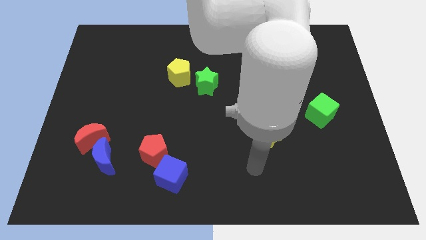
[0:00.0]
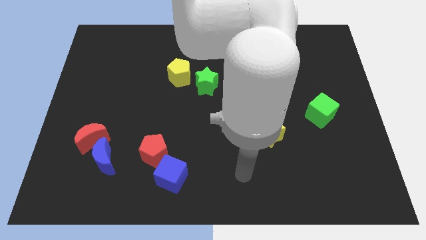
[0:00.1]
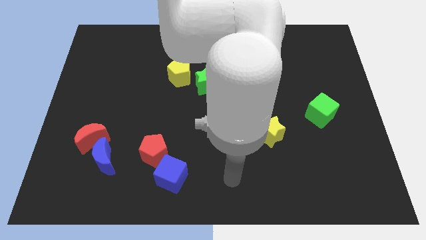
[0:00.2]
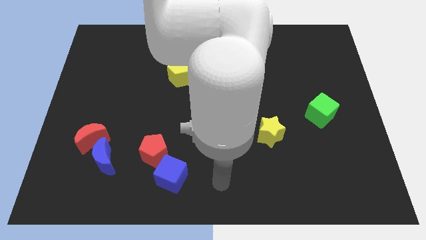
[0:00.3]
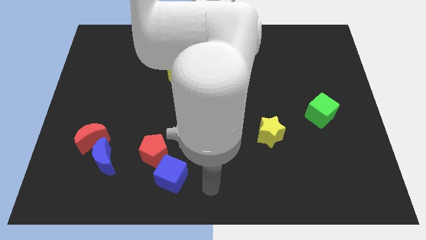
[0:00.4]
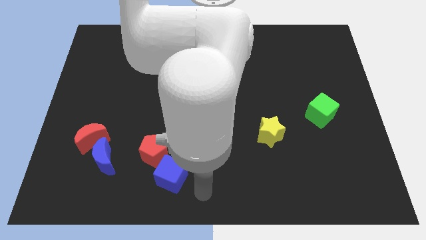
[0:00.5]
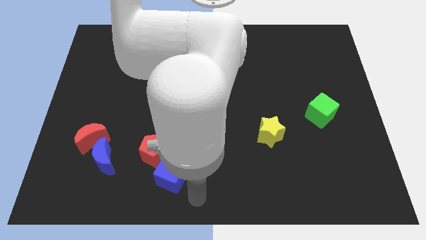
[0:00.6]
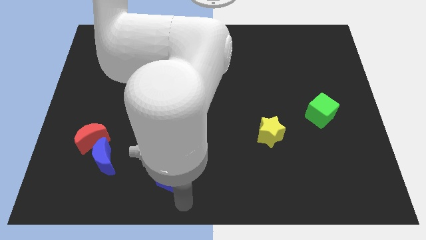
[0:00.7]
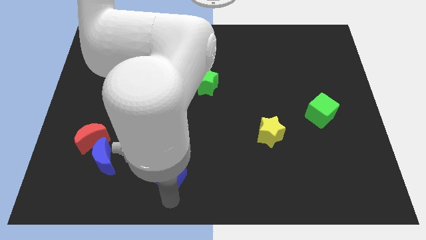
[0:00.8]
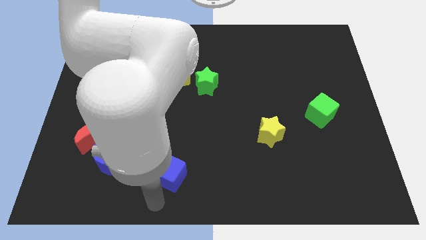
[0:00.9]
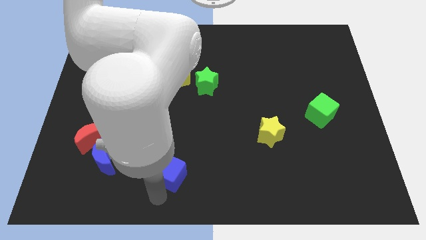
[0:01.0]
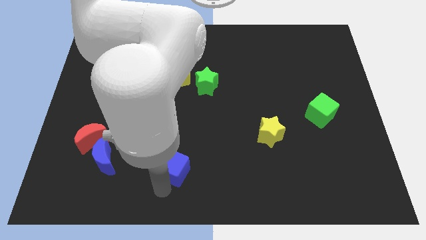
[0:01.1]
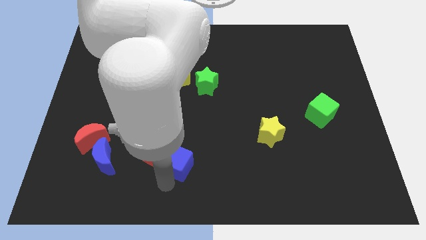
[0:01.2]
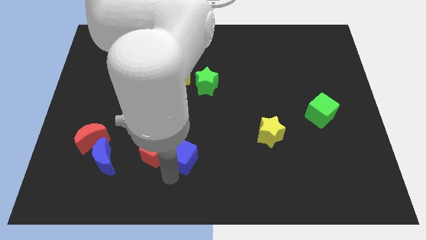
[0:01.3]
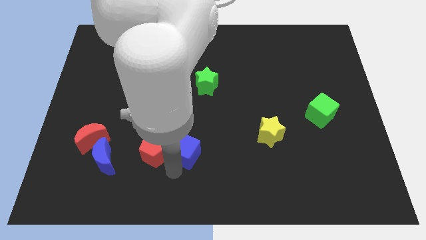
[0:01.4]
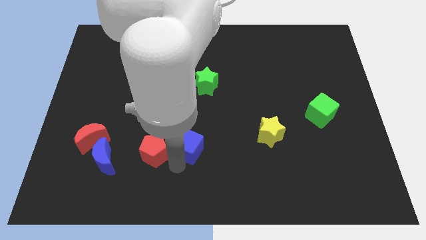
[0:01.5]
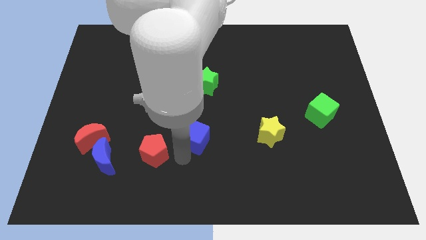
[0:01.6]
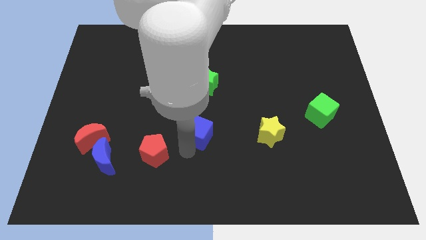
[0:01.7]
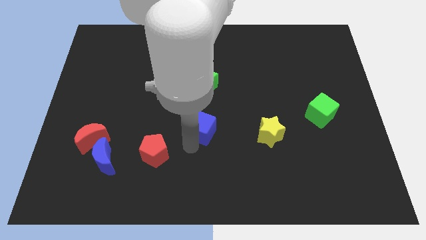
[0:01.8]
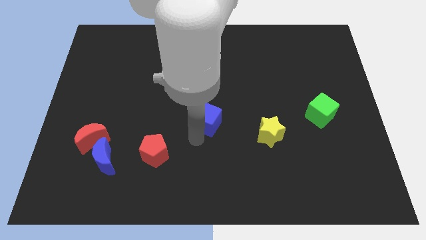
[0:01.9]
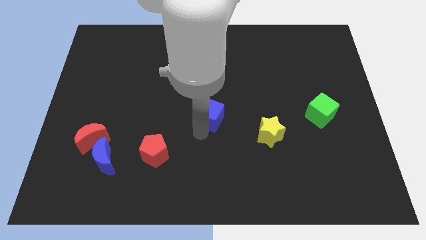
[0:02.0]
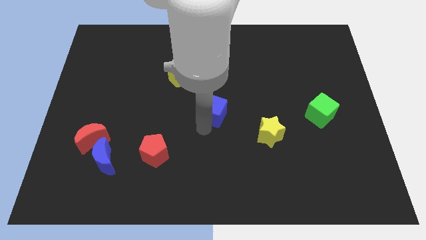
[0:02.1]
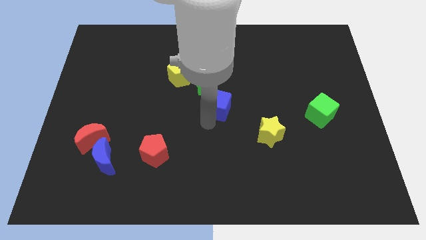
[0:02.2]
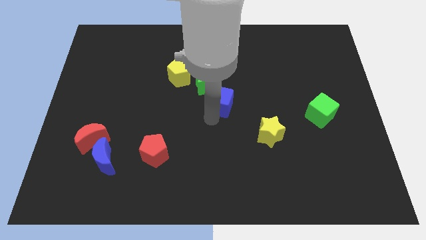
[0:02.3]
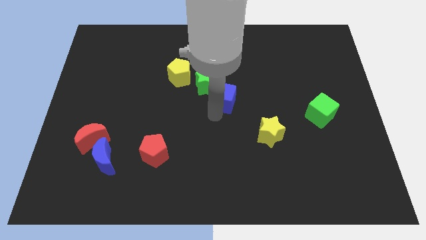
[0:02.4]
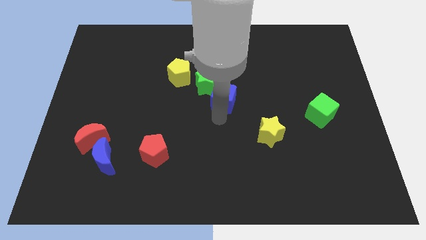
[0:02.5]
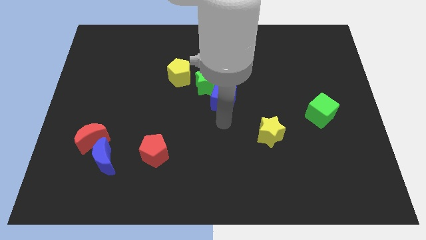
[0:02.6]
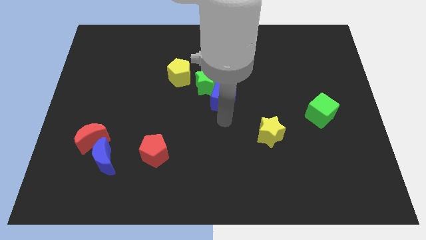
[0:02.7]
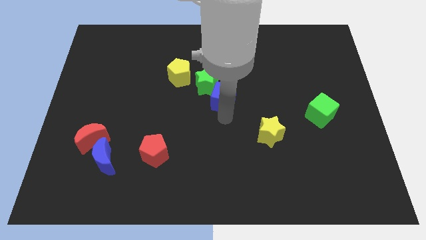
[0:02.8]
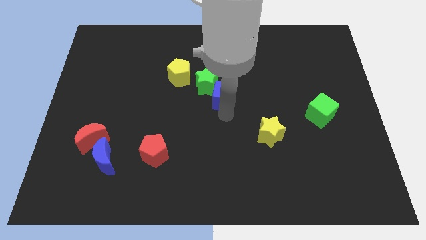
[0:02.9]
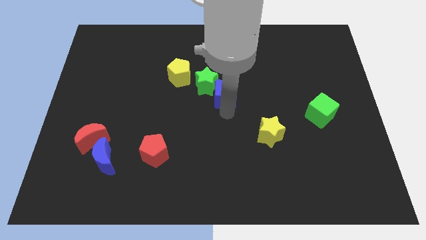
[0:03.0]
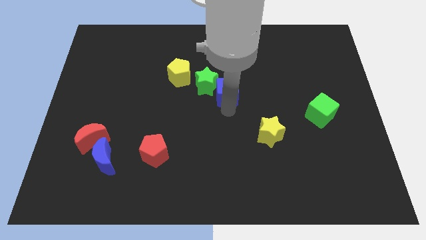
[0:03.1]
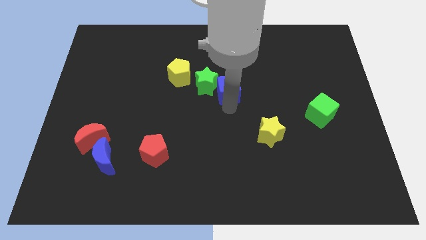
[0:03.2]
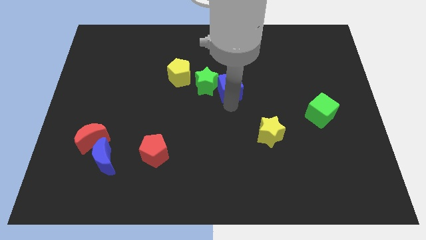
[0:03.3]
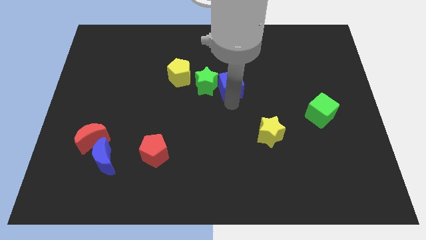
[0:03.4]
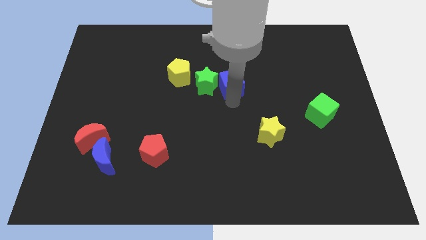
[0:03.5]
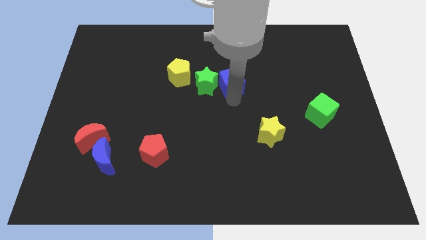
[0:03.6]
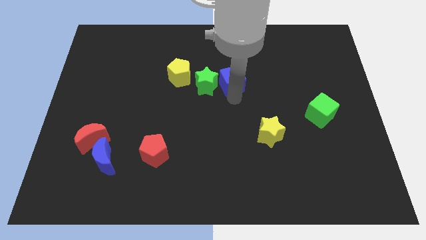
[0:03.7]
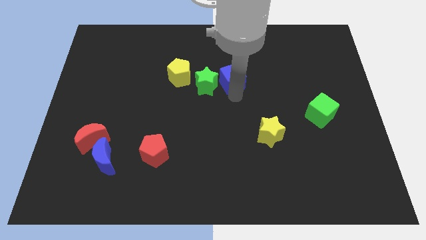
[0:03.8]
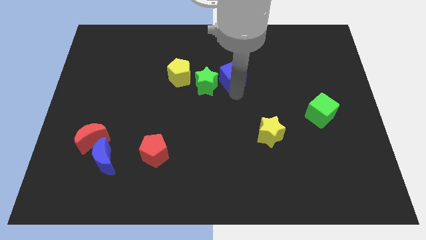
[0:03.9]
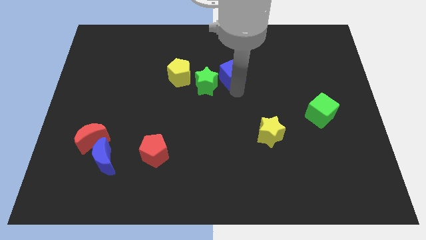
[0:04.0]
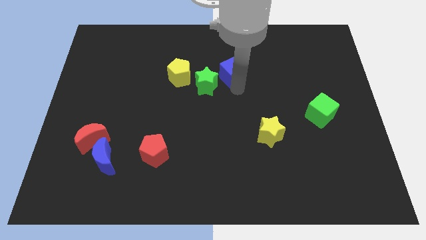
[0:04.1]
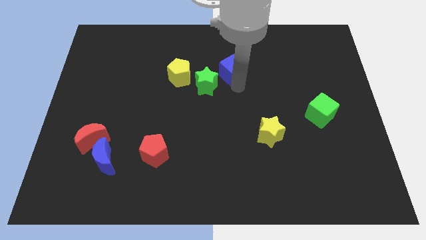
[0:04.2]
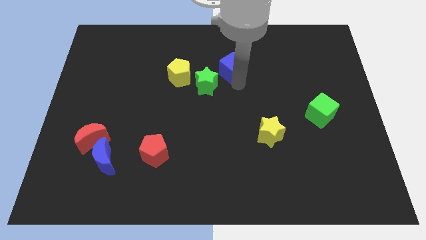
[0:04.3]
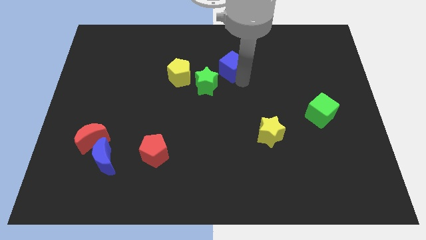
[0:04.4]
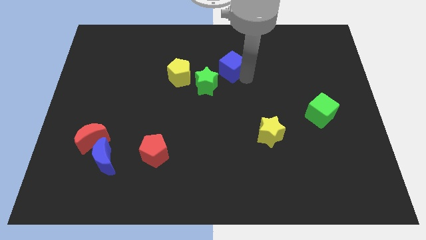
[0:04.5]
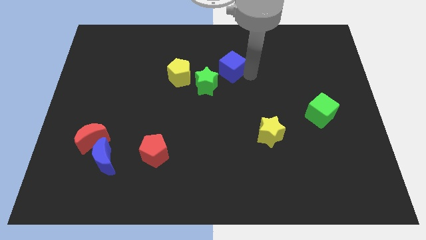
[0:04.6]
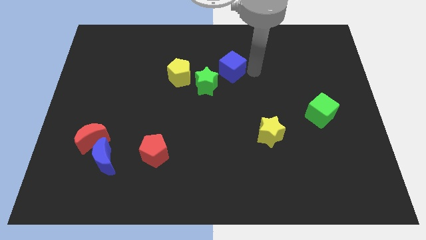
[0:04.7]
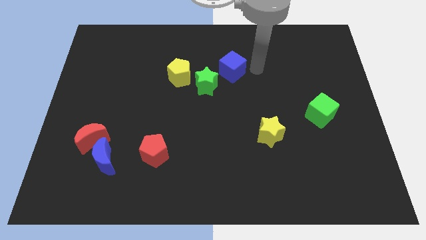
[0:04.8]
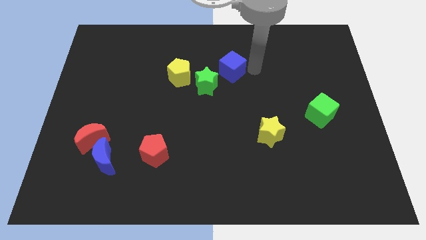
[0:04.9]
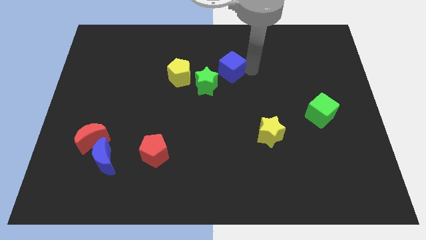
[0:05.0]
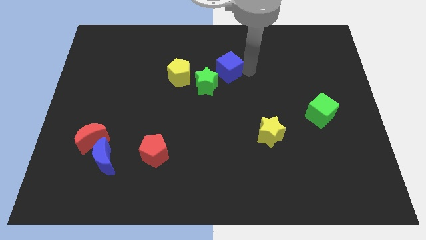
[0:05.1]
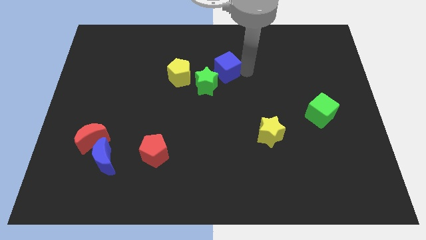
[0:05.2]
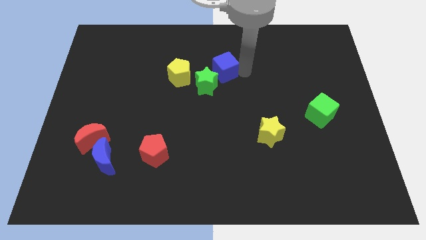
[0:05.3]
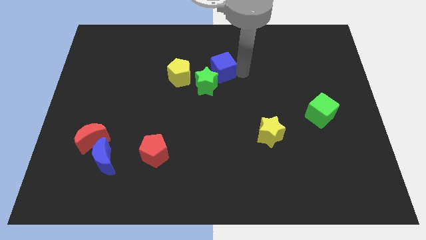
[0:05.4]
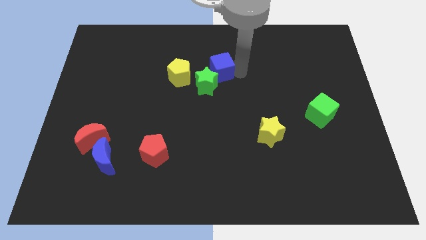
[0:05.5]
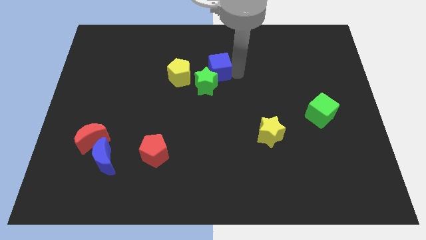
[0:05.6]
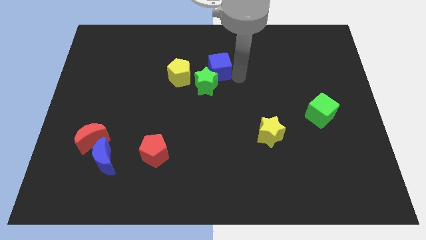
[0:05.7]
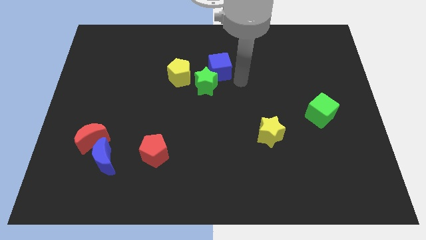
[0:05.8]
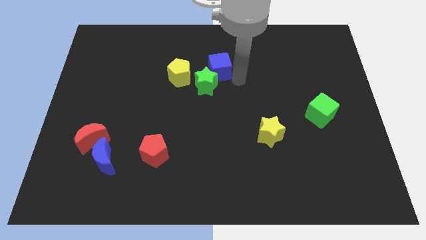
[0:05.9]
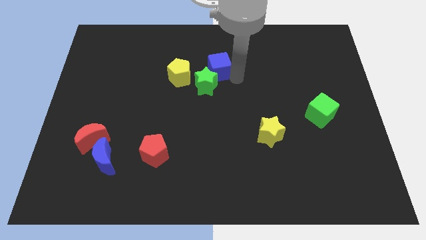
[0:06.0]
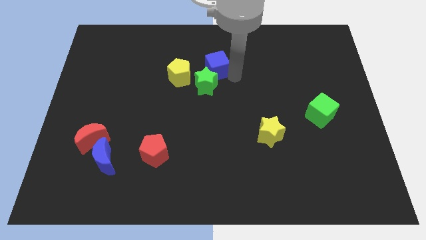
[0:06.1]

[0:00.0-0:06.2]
push the blue cube diagonally up and to the right of the yellow pentagon
